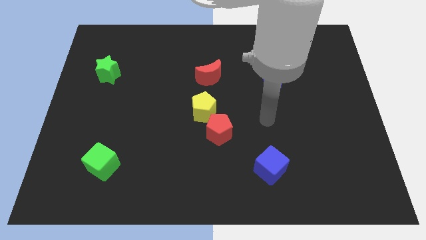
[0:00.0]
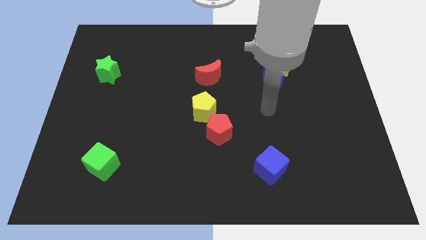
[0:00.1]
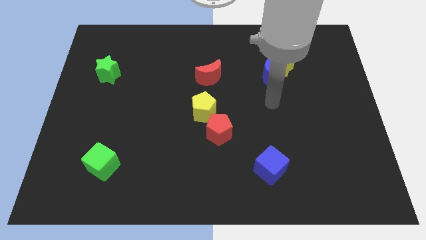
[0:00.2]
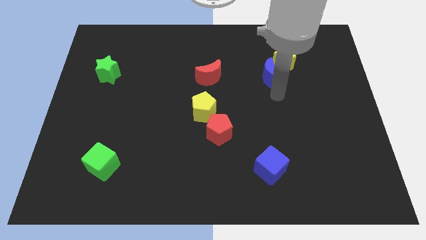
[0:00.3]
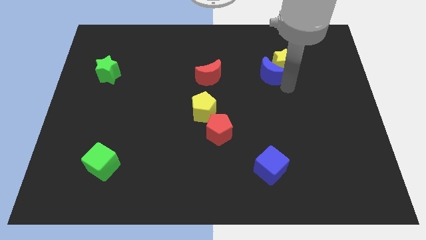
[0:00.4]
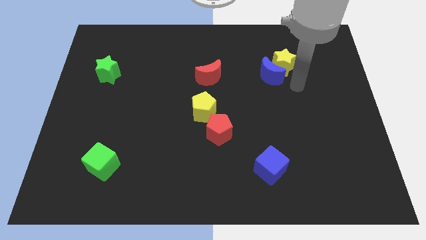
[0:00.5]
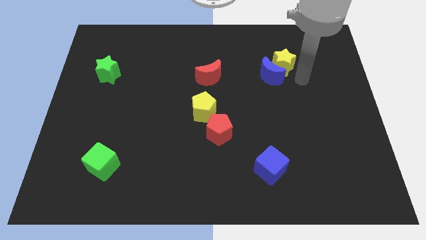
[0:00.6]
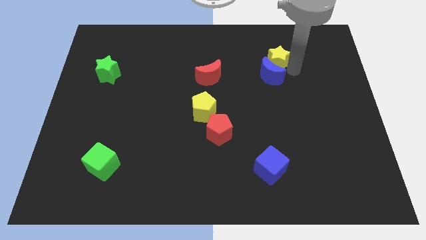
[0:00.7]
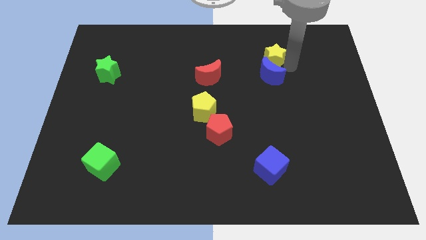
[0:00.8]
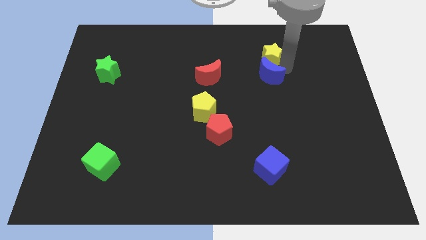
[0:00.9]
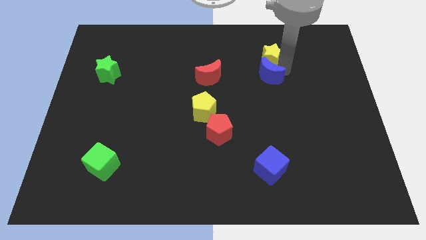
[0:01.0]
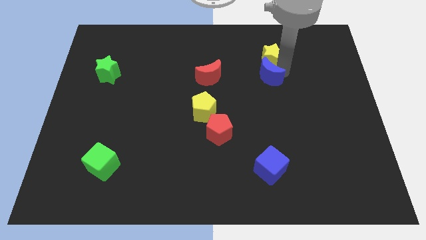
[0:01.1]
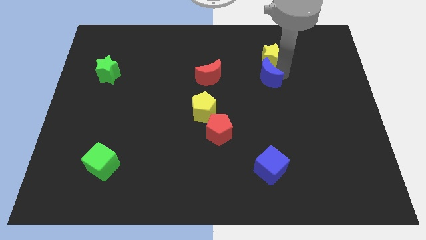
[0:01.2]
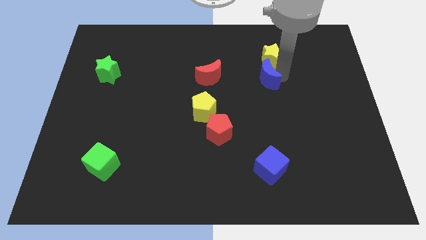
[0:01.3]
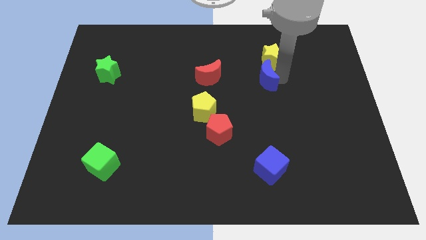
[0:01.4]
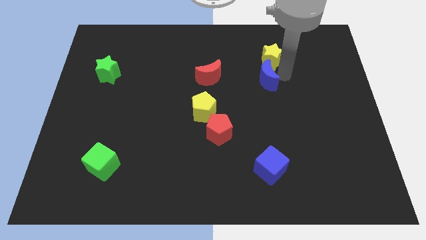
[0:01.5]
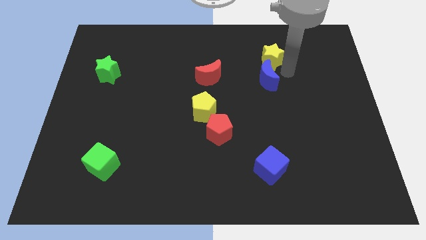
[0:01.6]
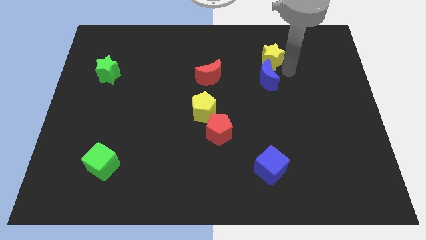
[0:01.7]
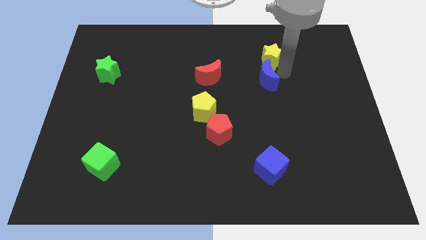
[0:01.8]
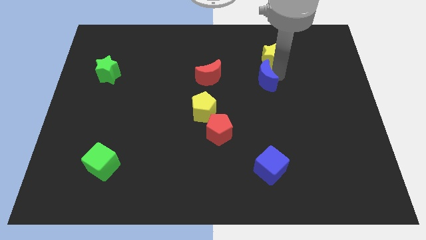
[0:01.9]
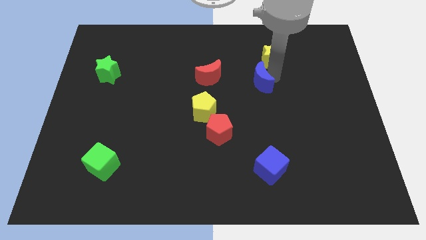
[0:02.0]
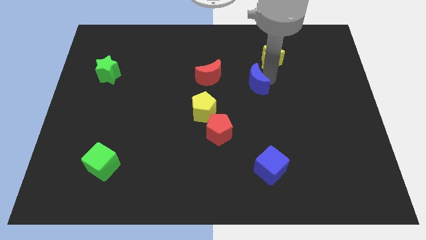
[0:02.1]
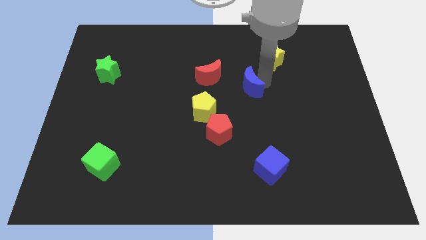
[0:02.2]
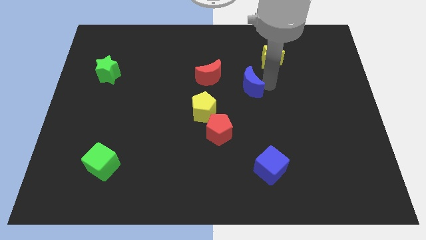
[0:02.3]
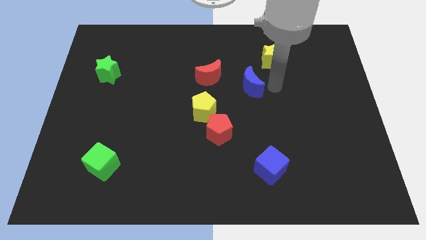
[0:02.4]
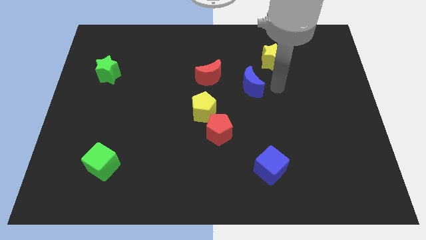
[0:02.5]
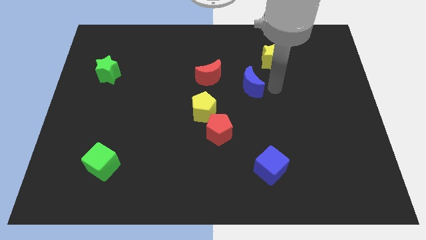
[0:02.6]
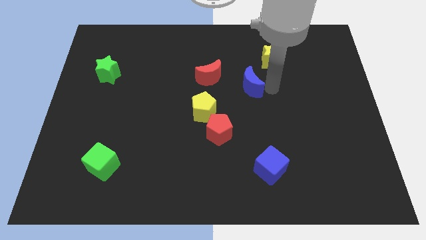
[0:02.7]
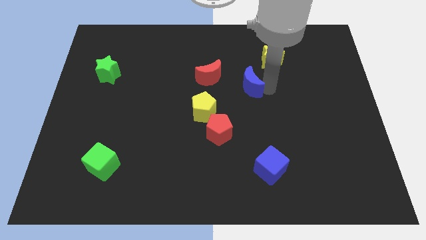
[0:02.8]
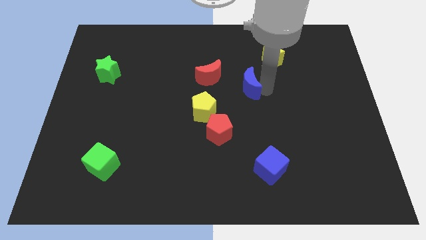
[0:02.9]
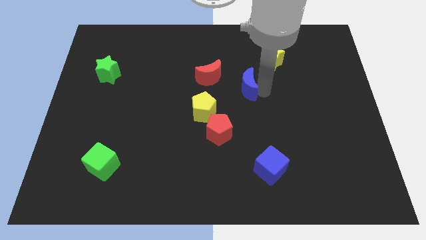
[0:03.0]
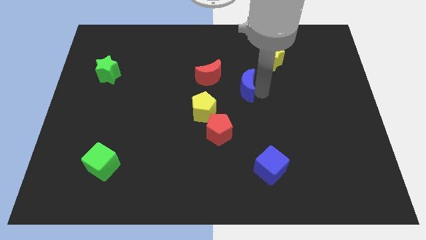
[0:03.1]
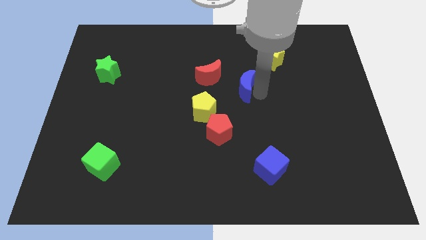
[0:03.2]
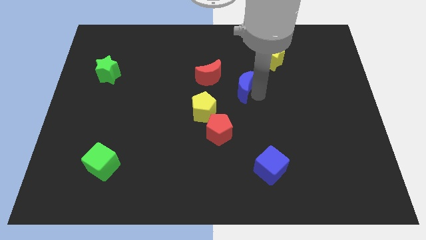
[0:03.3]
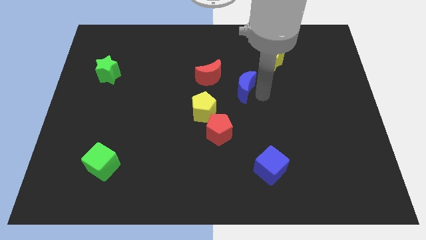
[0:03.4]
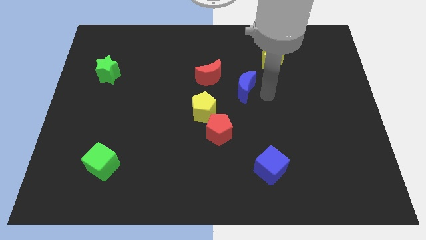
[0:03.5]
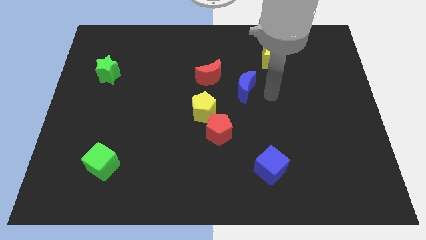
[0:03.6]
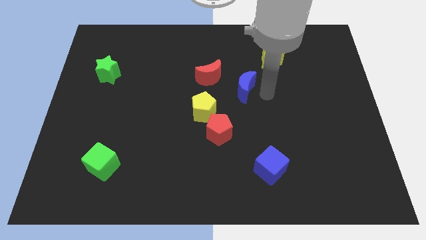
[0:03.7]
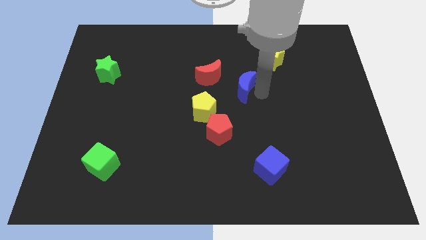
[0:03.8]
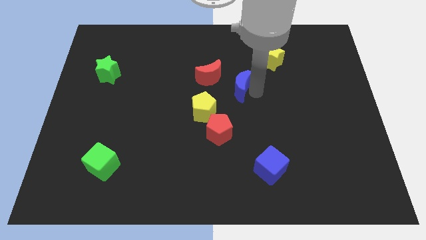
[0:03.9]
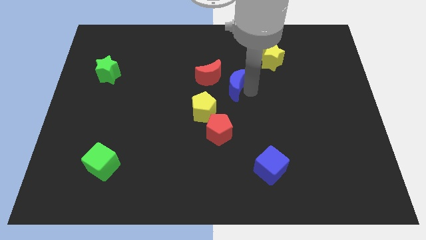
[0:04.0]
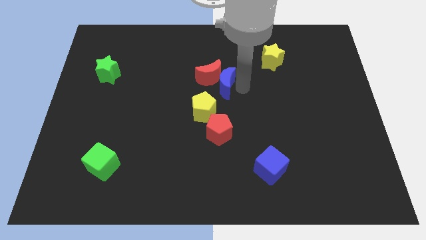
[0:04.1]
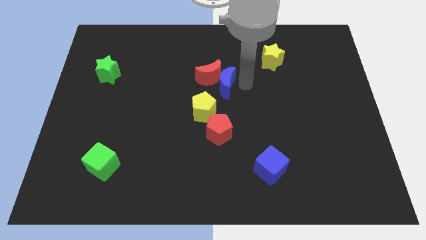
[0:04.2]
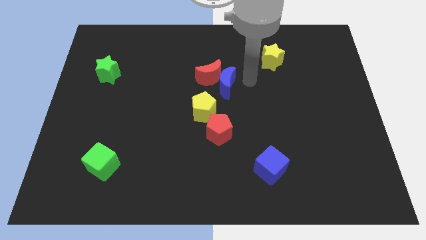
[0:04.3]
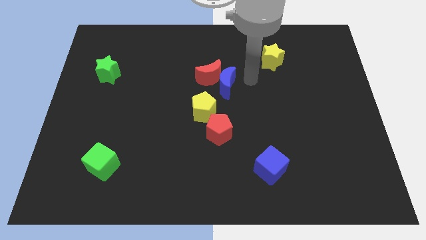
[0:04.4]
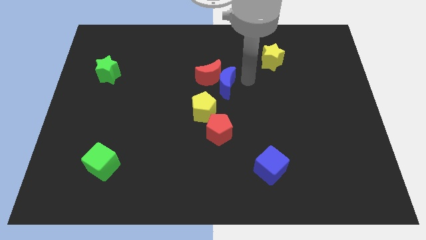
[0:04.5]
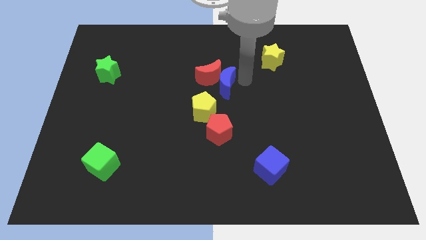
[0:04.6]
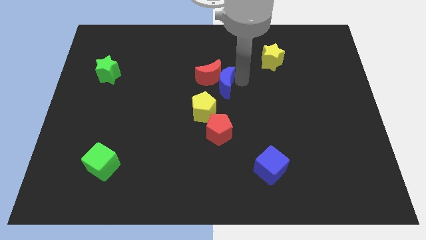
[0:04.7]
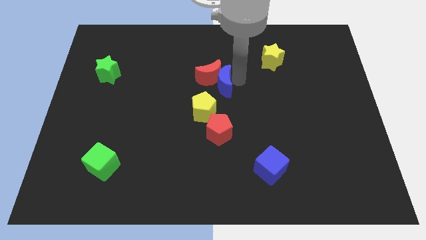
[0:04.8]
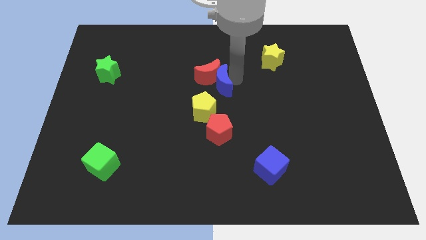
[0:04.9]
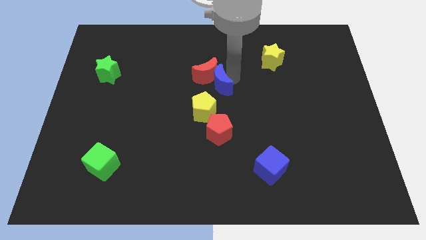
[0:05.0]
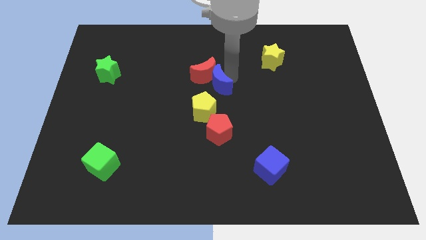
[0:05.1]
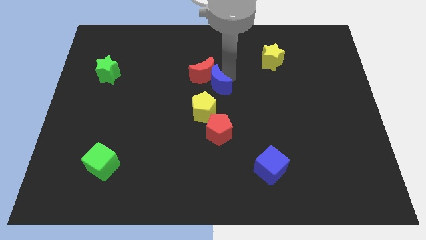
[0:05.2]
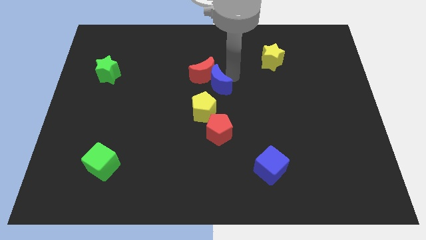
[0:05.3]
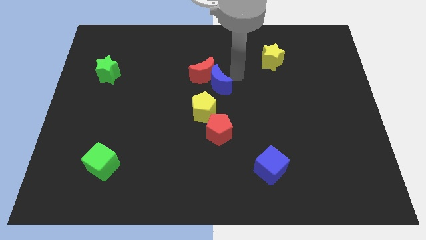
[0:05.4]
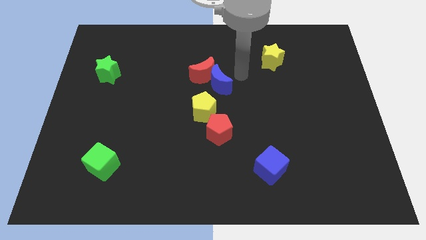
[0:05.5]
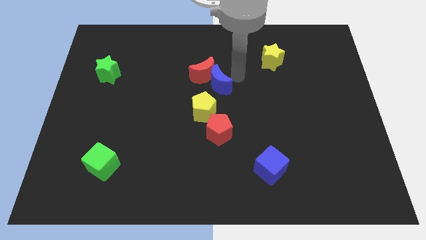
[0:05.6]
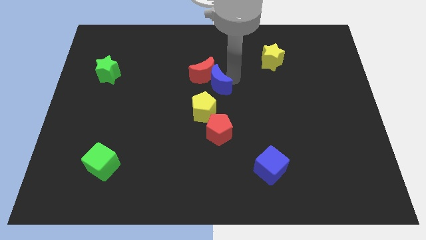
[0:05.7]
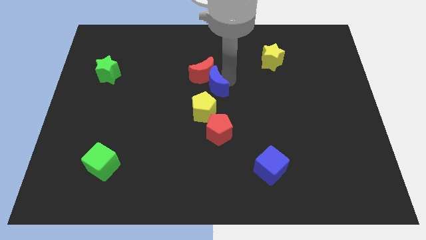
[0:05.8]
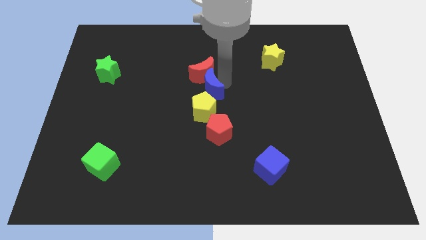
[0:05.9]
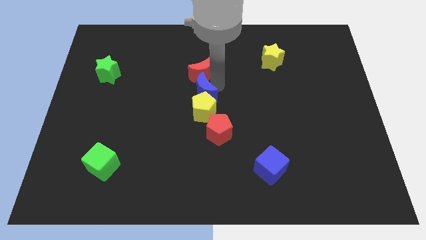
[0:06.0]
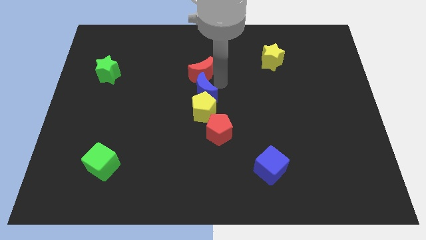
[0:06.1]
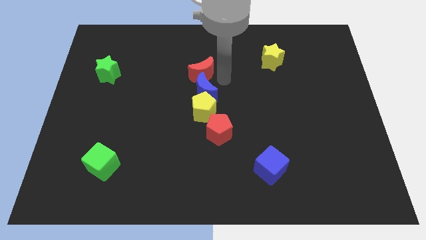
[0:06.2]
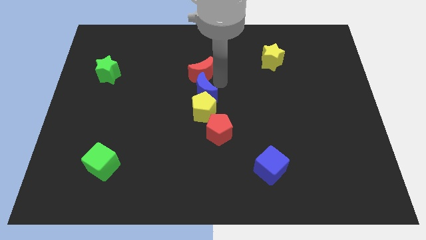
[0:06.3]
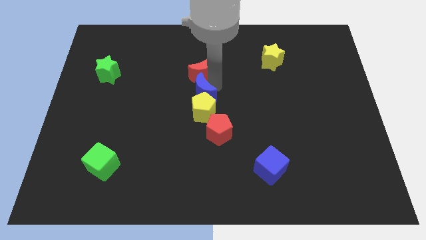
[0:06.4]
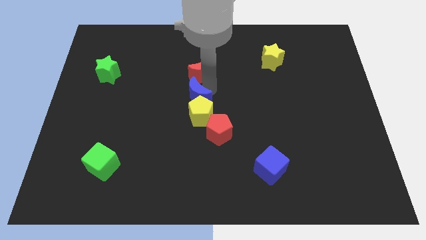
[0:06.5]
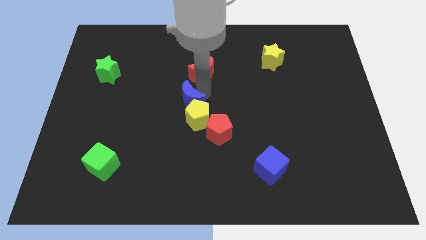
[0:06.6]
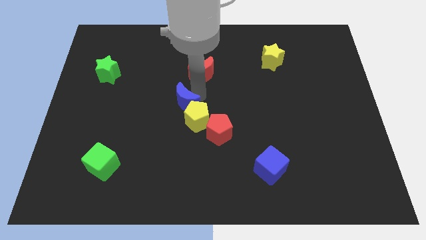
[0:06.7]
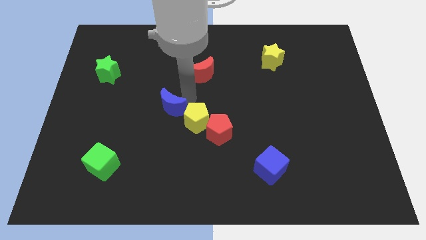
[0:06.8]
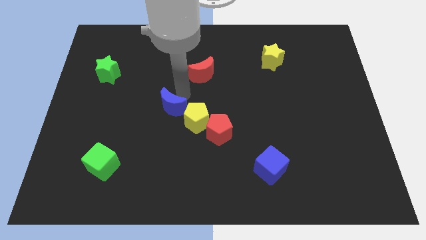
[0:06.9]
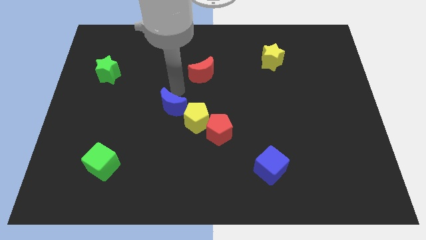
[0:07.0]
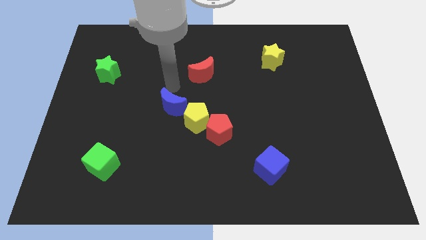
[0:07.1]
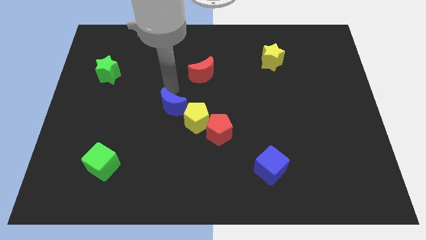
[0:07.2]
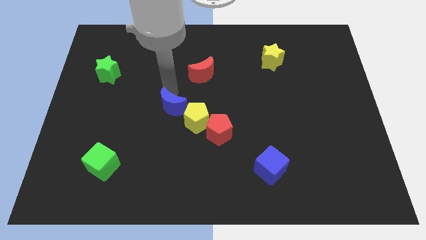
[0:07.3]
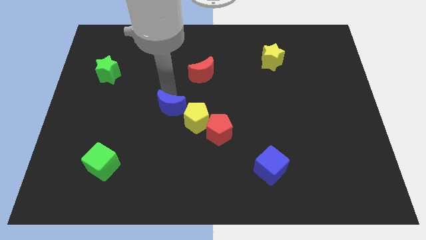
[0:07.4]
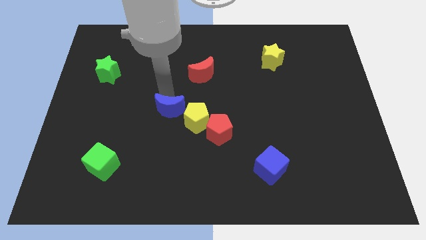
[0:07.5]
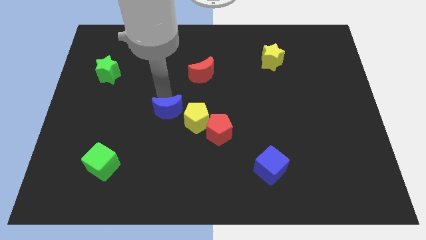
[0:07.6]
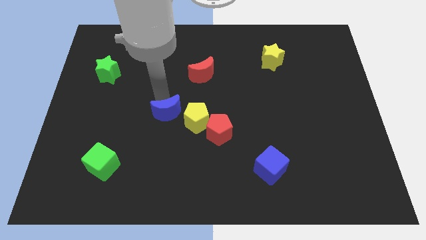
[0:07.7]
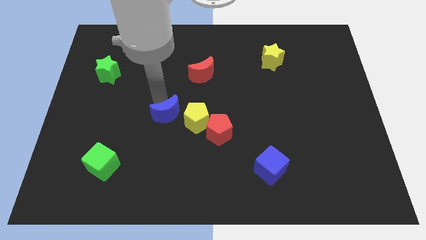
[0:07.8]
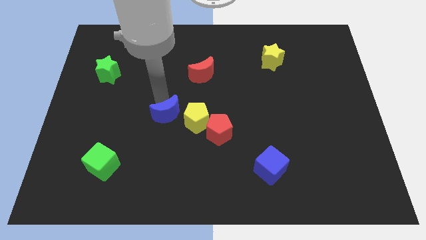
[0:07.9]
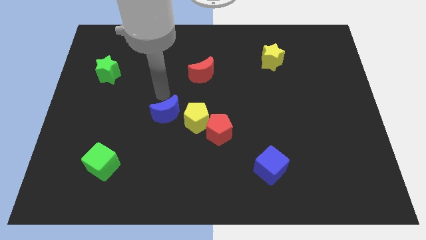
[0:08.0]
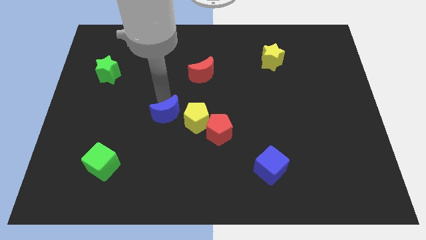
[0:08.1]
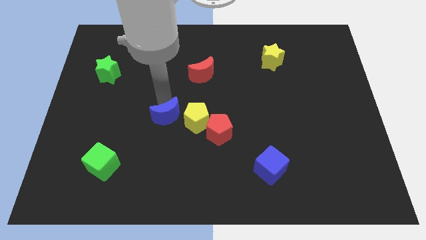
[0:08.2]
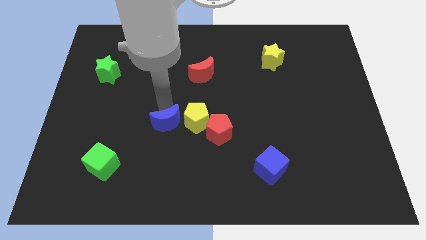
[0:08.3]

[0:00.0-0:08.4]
put the blue moon diagonally down and to the left of the yellow pentagon
